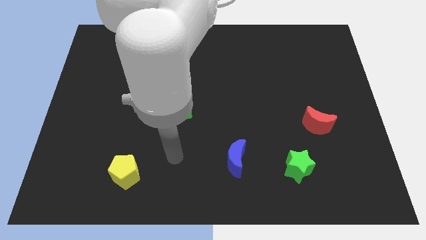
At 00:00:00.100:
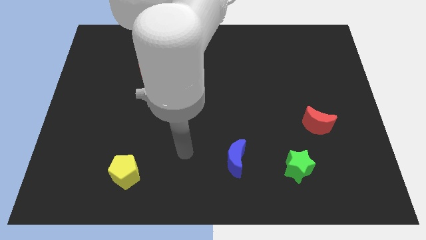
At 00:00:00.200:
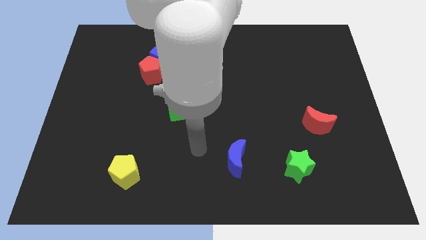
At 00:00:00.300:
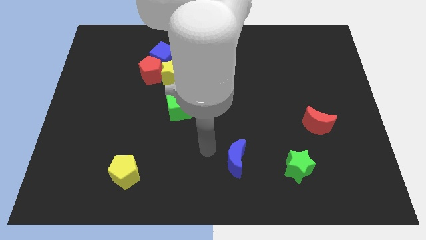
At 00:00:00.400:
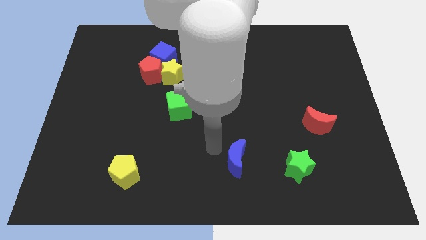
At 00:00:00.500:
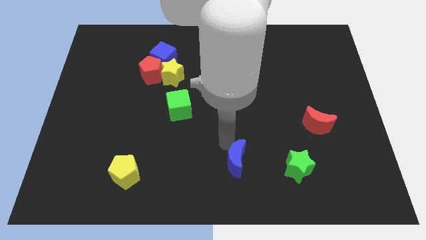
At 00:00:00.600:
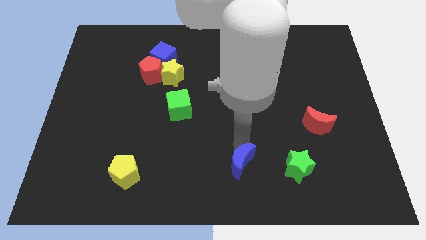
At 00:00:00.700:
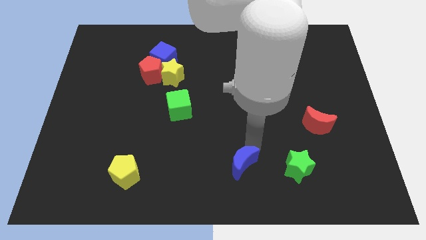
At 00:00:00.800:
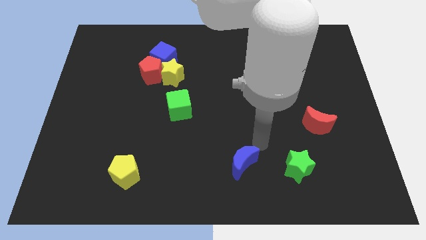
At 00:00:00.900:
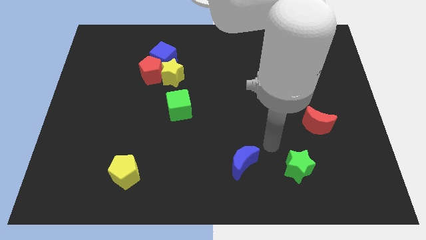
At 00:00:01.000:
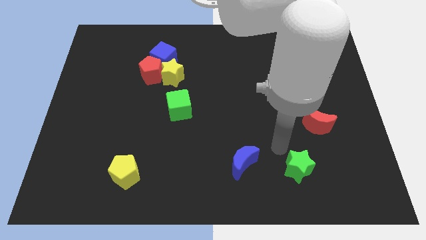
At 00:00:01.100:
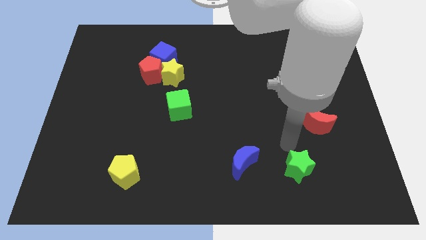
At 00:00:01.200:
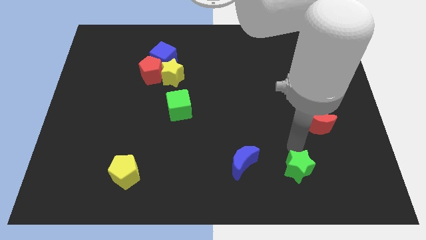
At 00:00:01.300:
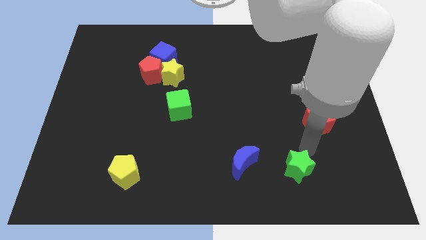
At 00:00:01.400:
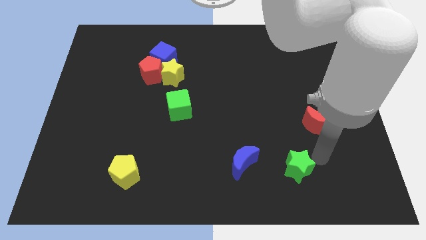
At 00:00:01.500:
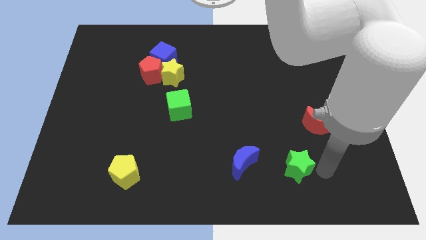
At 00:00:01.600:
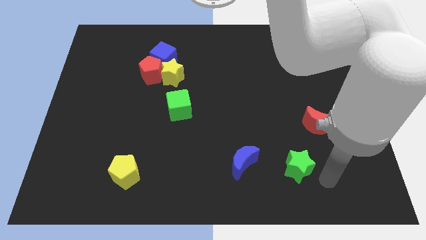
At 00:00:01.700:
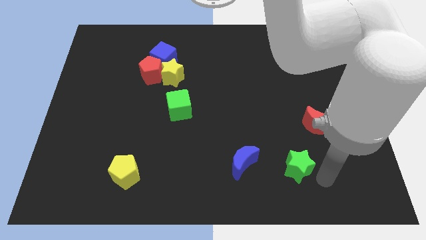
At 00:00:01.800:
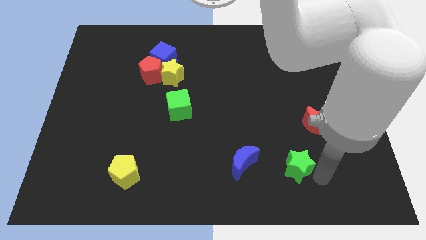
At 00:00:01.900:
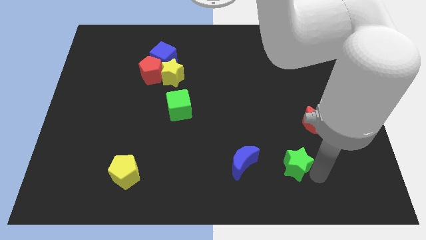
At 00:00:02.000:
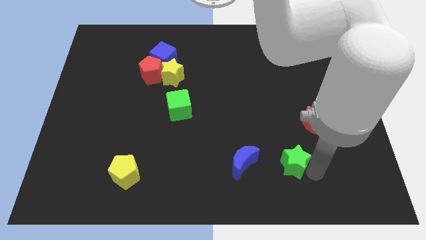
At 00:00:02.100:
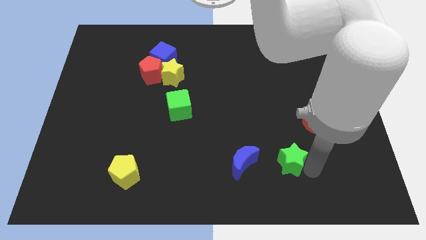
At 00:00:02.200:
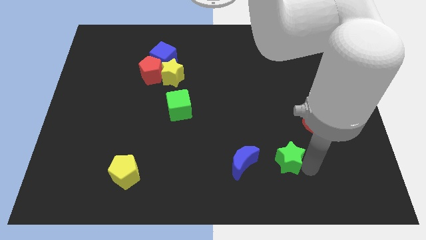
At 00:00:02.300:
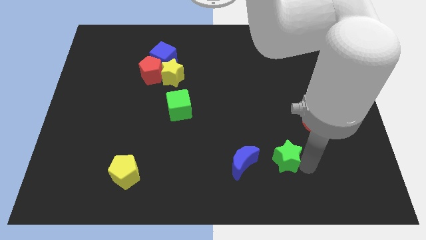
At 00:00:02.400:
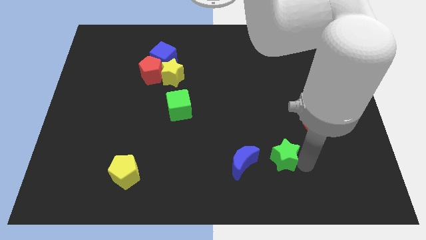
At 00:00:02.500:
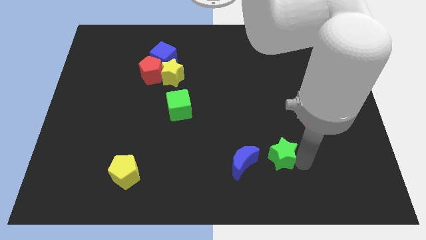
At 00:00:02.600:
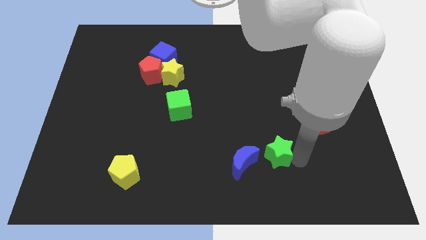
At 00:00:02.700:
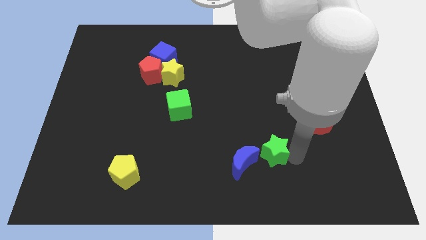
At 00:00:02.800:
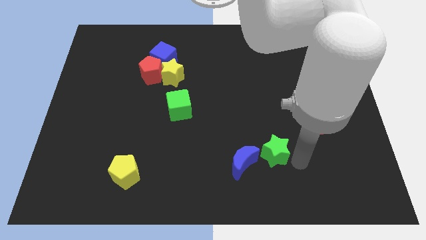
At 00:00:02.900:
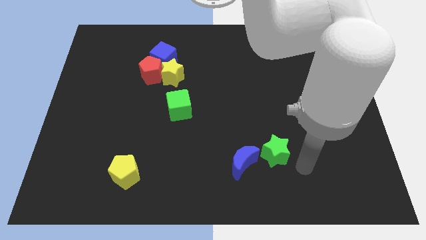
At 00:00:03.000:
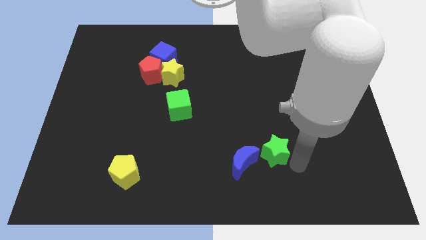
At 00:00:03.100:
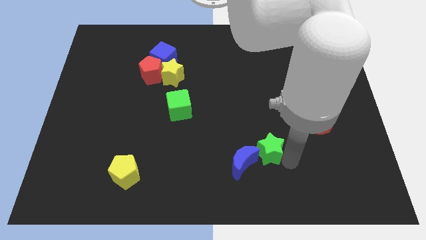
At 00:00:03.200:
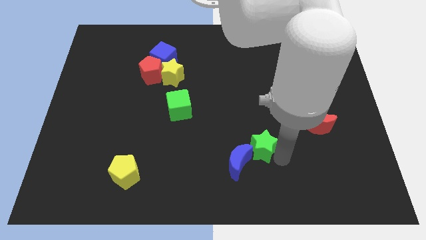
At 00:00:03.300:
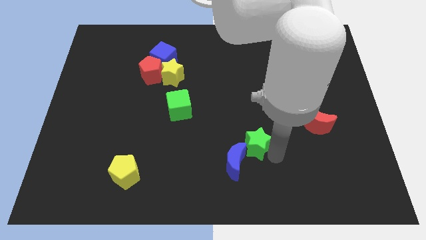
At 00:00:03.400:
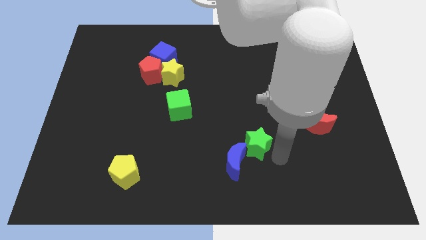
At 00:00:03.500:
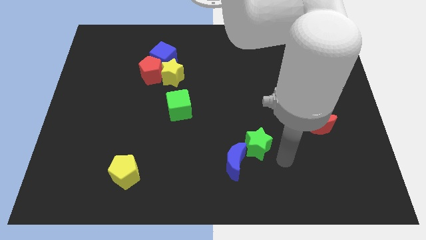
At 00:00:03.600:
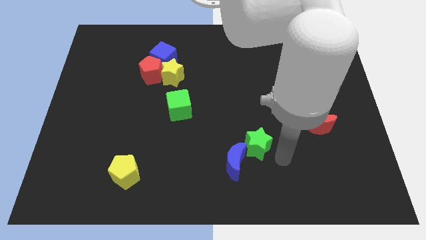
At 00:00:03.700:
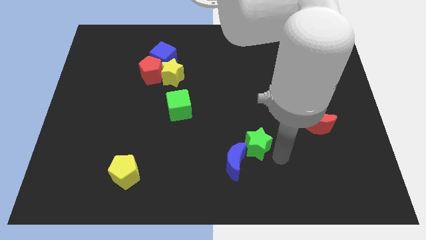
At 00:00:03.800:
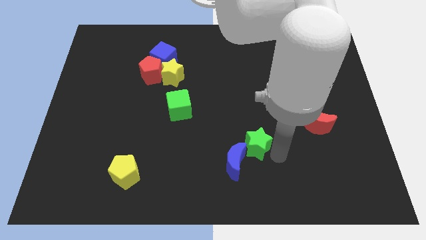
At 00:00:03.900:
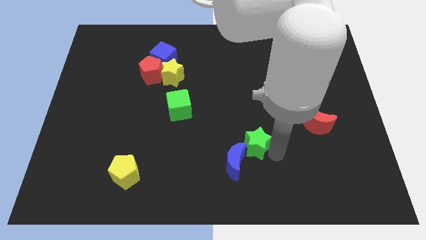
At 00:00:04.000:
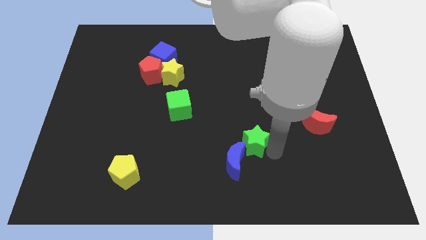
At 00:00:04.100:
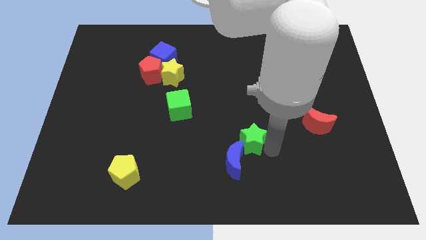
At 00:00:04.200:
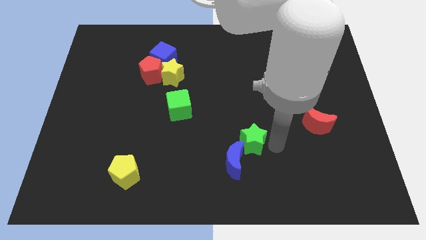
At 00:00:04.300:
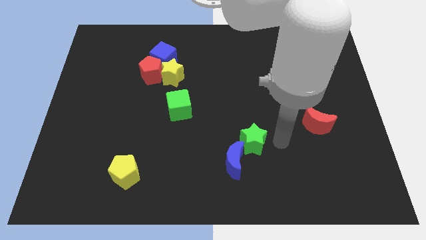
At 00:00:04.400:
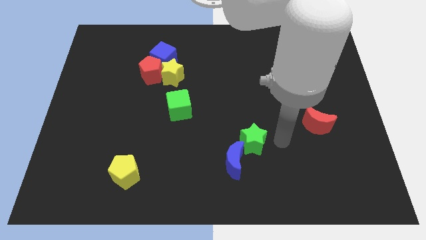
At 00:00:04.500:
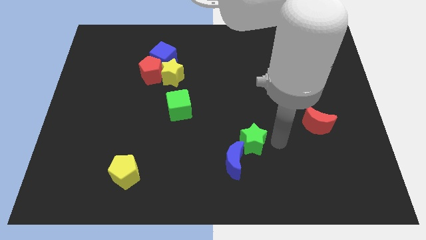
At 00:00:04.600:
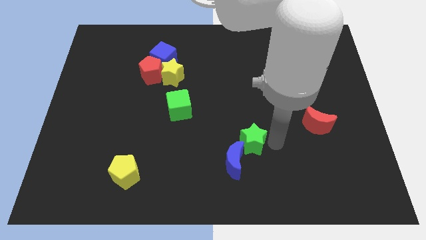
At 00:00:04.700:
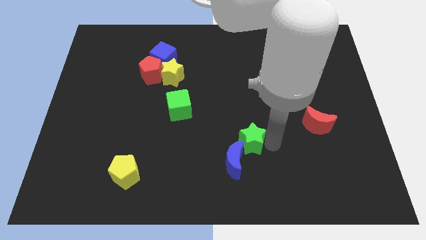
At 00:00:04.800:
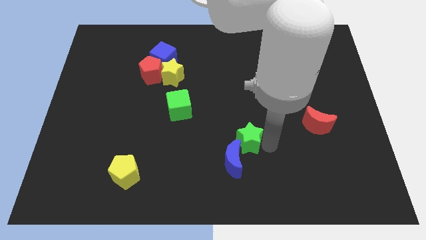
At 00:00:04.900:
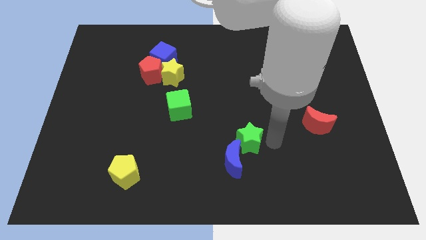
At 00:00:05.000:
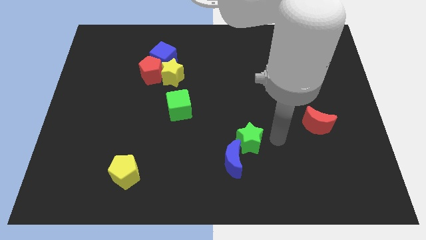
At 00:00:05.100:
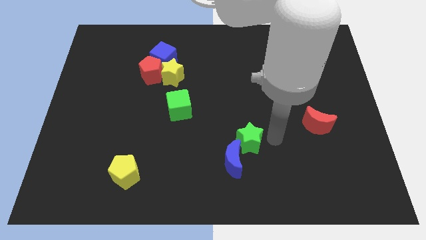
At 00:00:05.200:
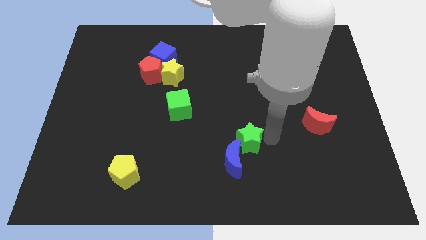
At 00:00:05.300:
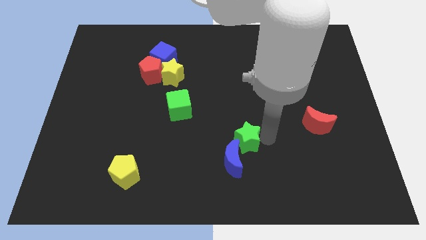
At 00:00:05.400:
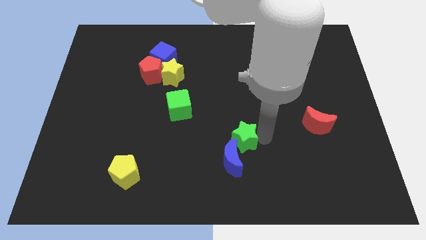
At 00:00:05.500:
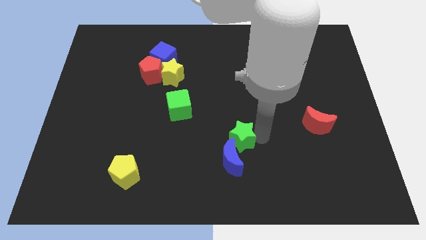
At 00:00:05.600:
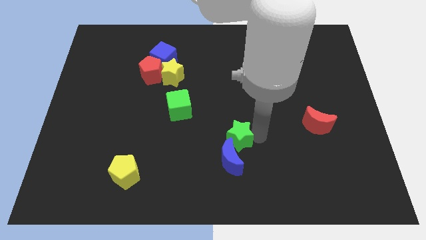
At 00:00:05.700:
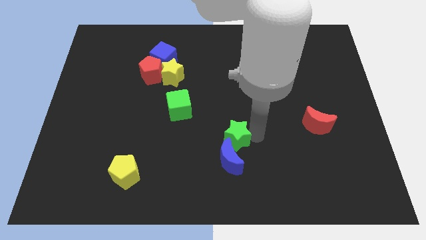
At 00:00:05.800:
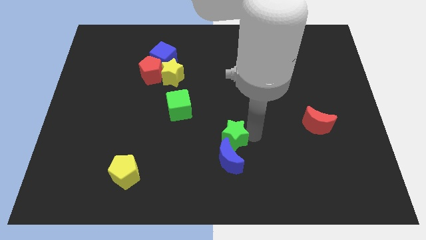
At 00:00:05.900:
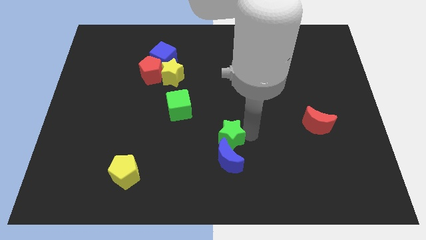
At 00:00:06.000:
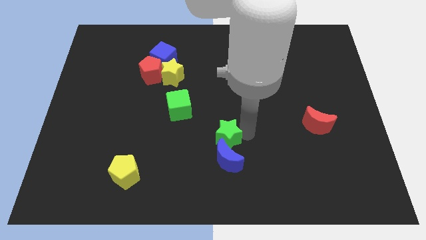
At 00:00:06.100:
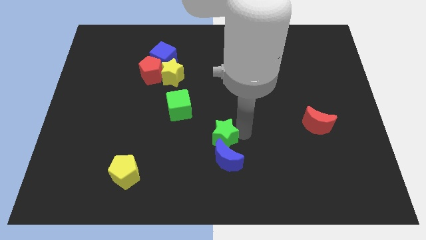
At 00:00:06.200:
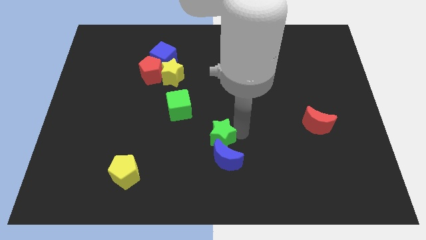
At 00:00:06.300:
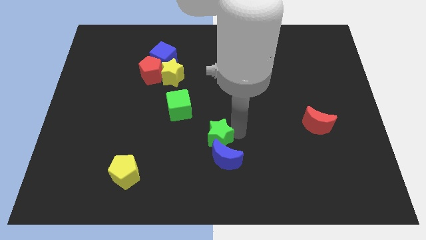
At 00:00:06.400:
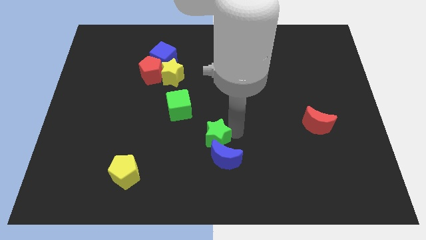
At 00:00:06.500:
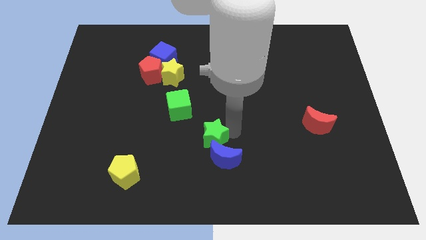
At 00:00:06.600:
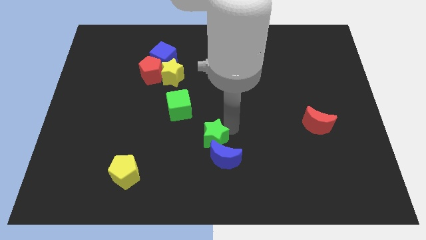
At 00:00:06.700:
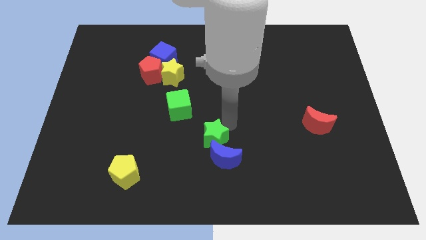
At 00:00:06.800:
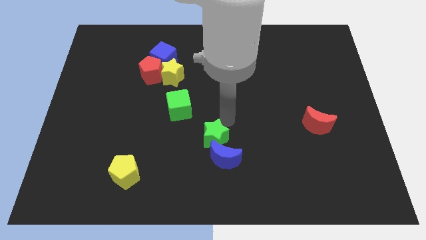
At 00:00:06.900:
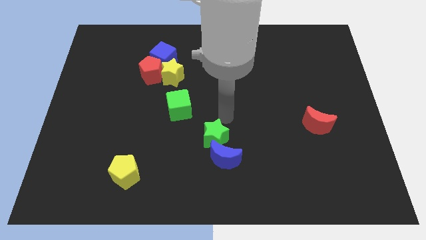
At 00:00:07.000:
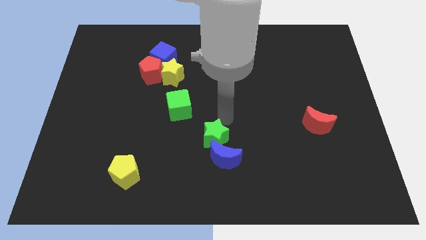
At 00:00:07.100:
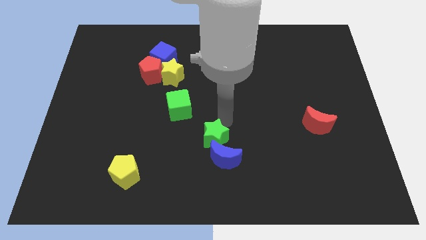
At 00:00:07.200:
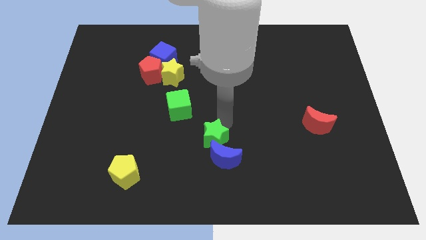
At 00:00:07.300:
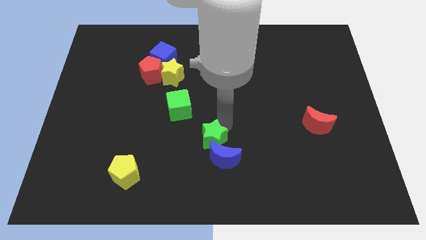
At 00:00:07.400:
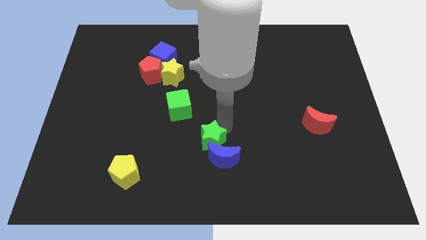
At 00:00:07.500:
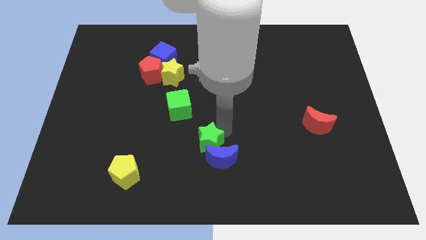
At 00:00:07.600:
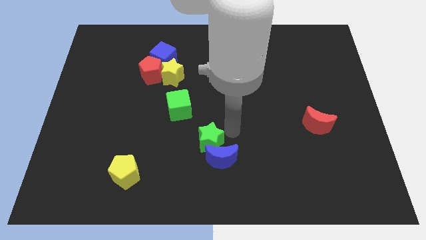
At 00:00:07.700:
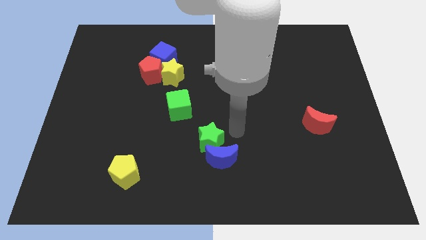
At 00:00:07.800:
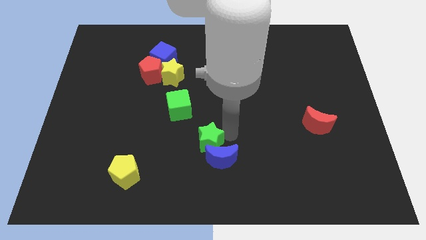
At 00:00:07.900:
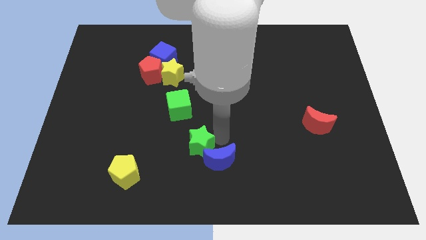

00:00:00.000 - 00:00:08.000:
move the green star left of the blue moon
